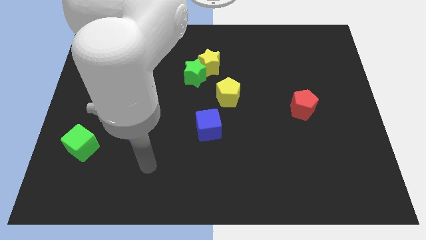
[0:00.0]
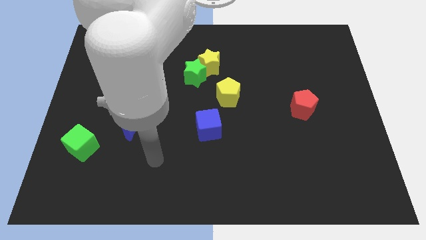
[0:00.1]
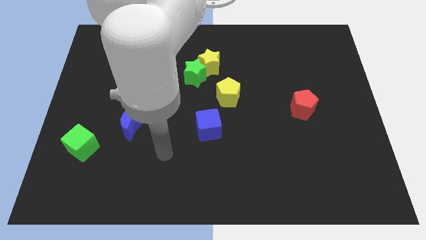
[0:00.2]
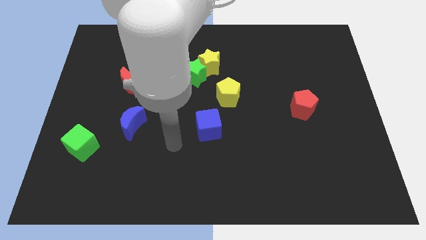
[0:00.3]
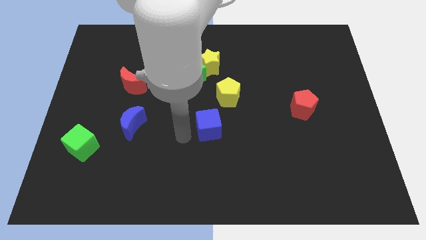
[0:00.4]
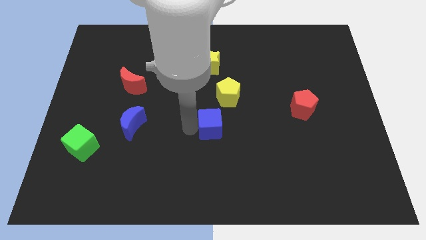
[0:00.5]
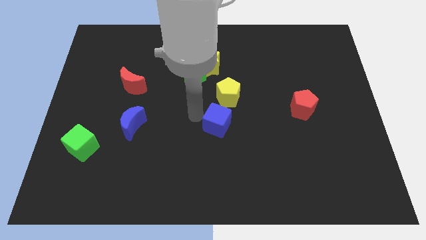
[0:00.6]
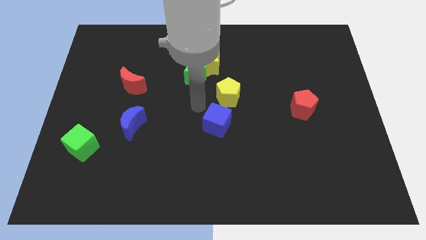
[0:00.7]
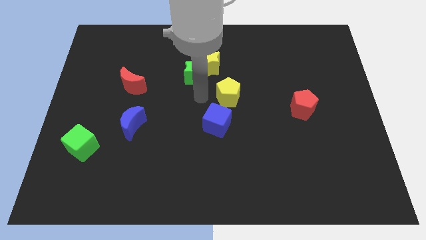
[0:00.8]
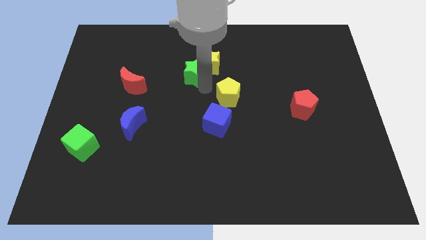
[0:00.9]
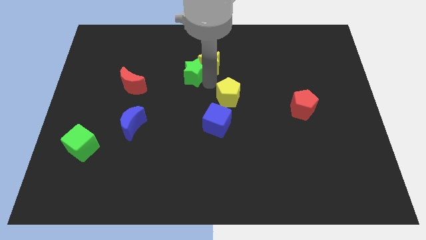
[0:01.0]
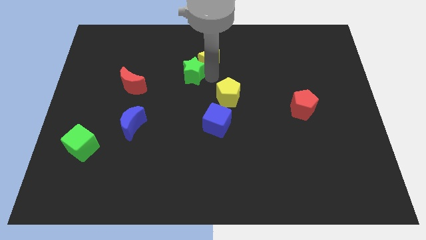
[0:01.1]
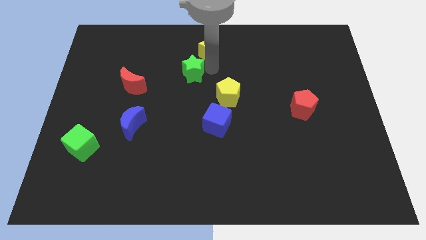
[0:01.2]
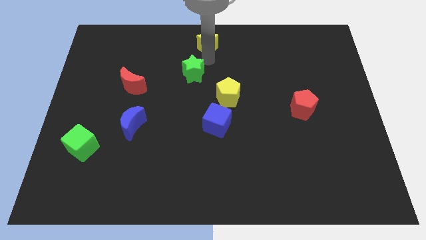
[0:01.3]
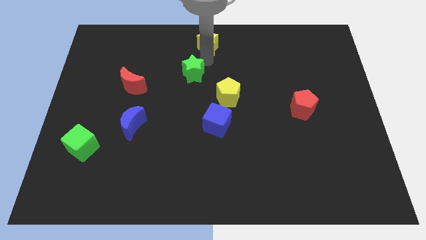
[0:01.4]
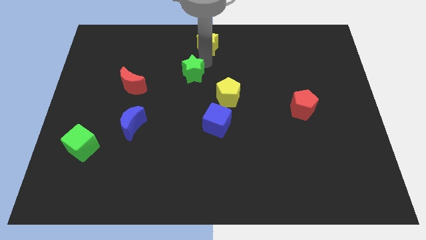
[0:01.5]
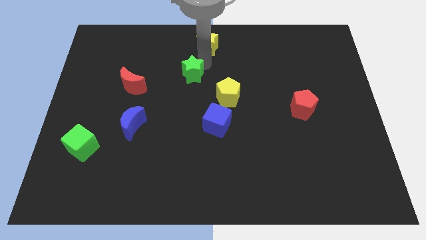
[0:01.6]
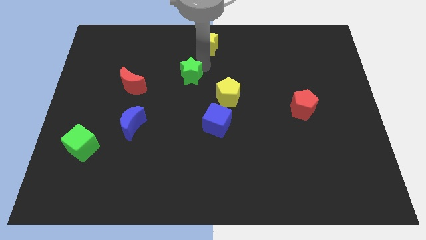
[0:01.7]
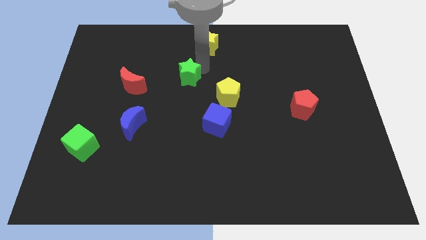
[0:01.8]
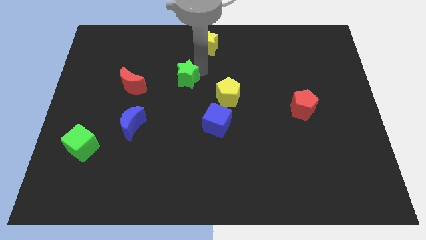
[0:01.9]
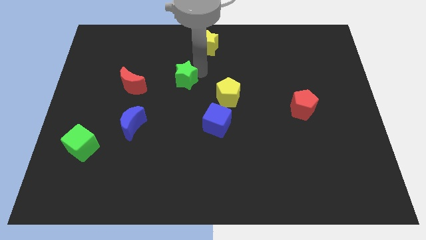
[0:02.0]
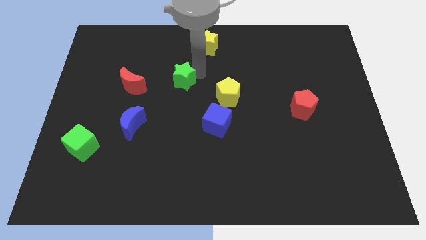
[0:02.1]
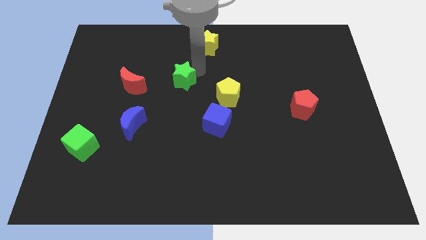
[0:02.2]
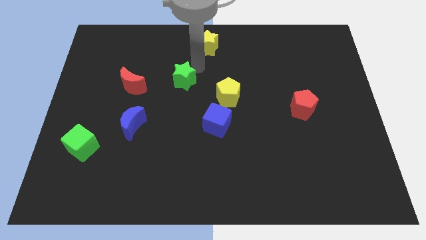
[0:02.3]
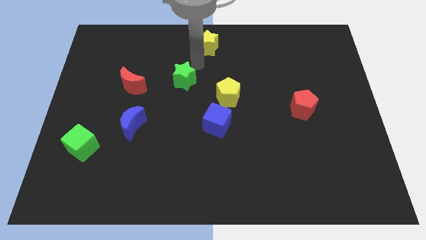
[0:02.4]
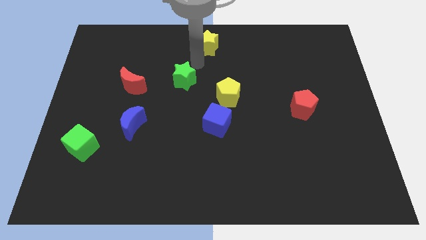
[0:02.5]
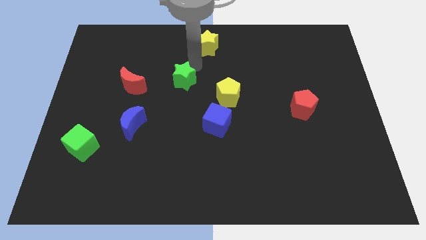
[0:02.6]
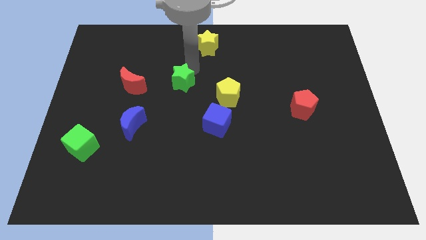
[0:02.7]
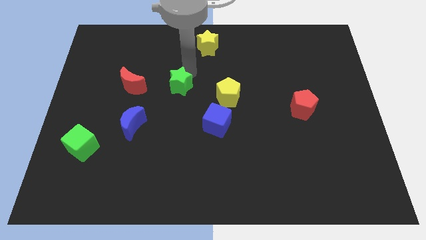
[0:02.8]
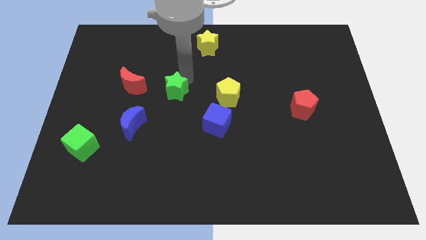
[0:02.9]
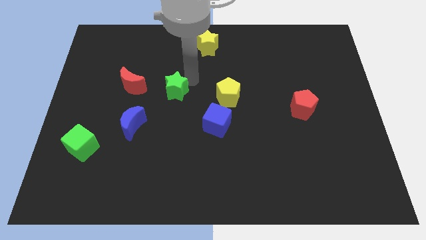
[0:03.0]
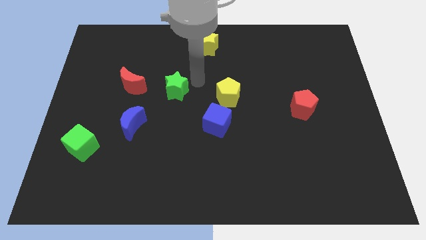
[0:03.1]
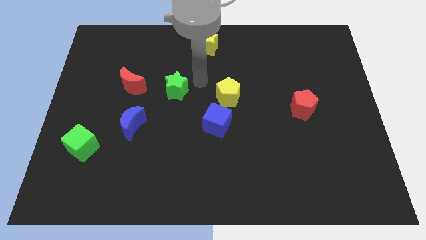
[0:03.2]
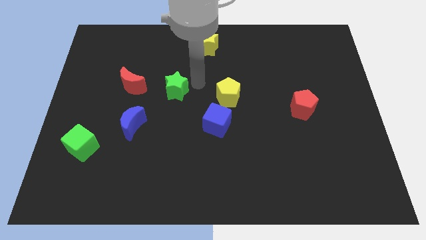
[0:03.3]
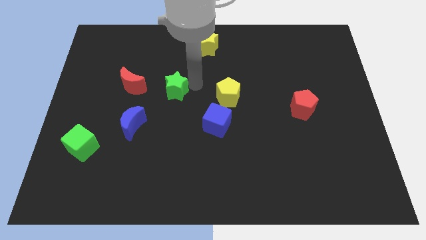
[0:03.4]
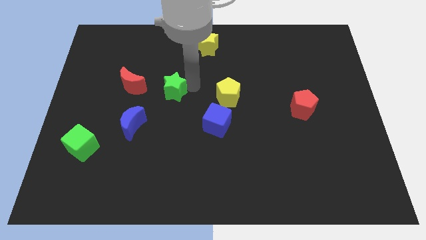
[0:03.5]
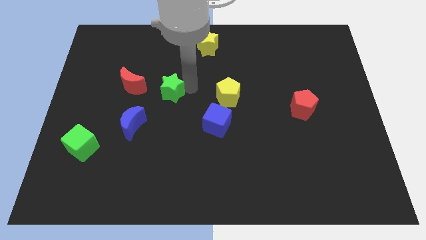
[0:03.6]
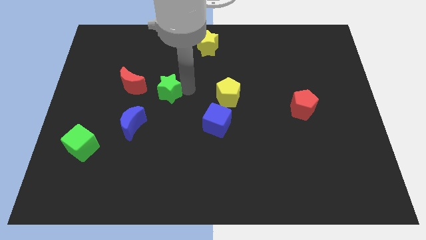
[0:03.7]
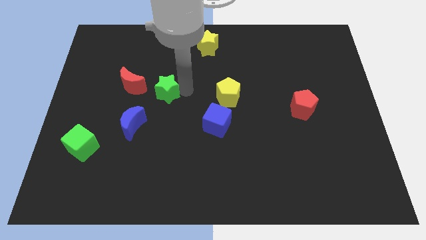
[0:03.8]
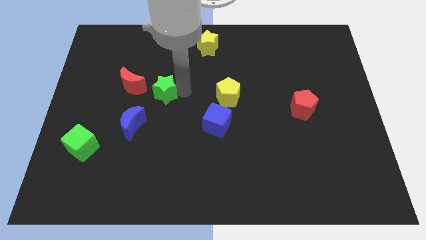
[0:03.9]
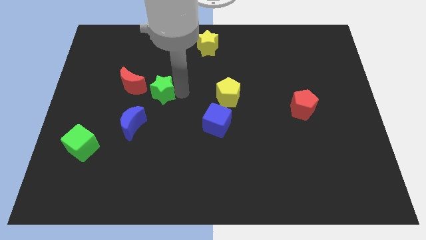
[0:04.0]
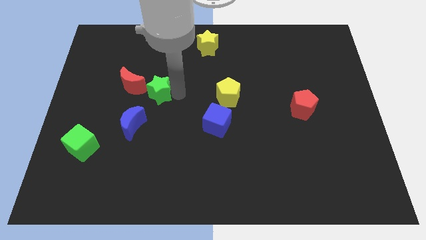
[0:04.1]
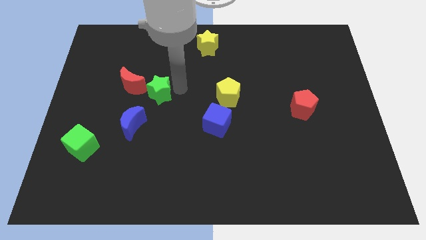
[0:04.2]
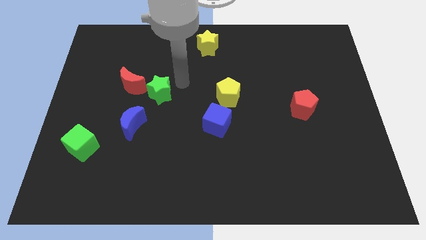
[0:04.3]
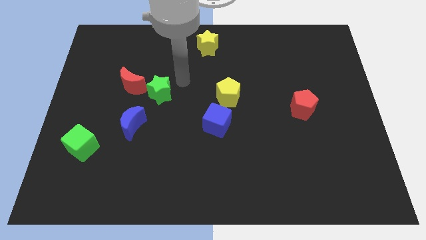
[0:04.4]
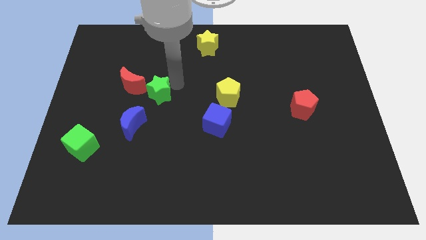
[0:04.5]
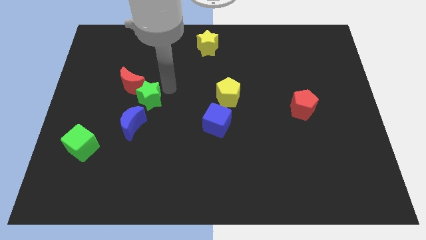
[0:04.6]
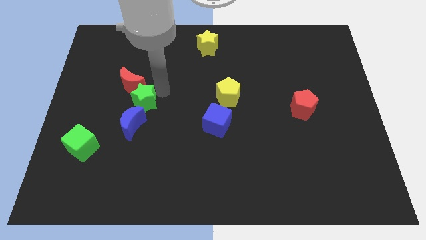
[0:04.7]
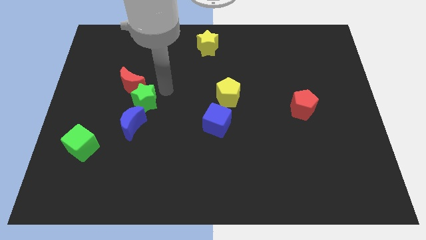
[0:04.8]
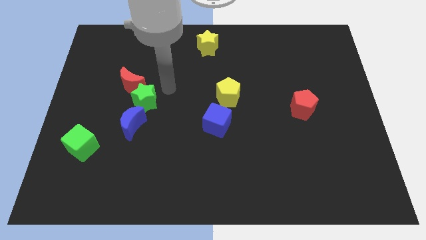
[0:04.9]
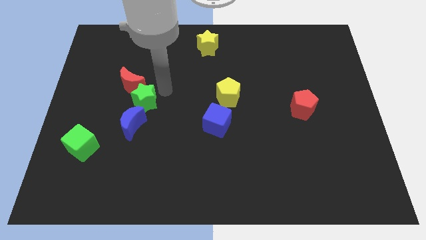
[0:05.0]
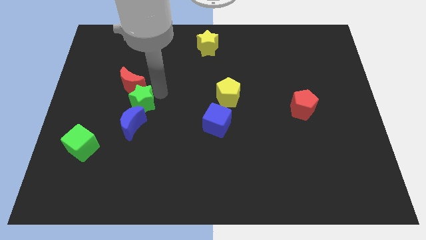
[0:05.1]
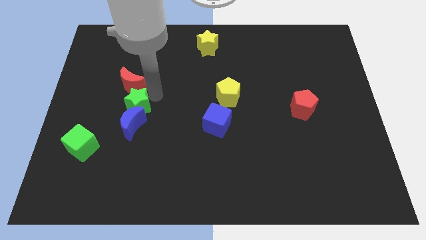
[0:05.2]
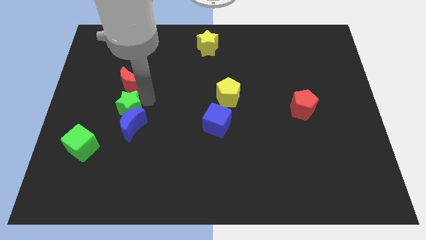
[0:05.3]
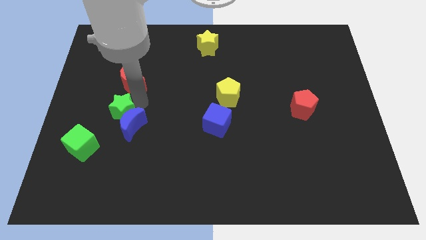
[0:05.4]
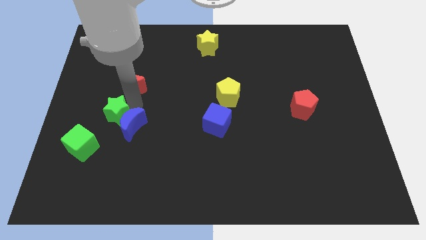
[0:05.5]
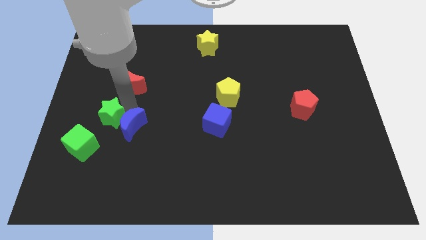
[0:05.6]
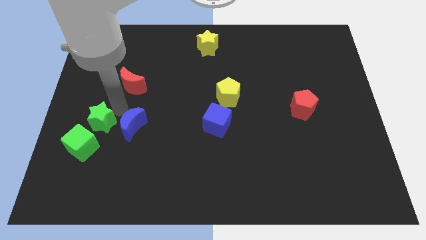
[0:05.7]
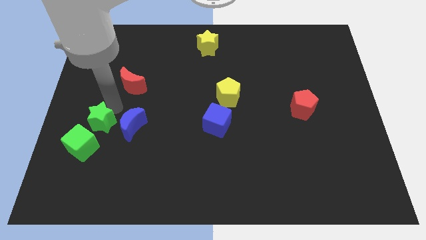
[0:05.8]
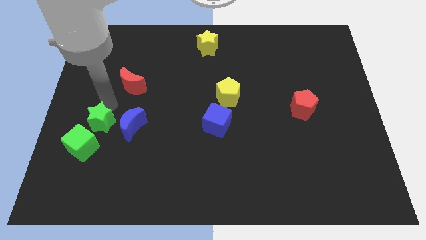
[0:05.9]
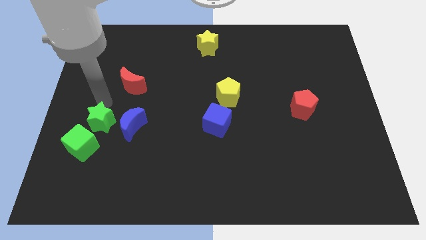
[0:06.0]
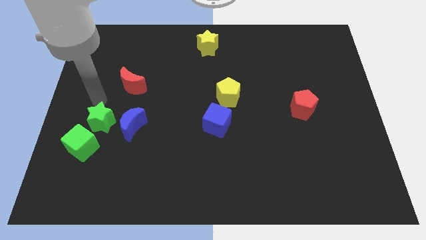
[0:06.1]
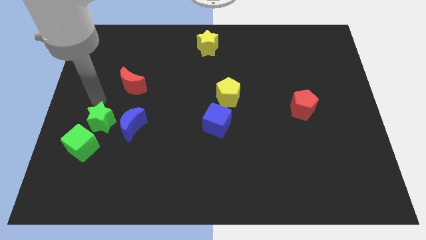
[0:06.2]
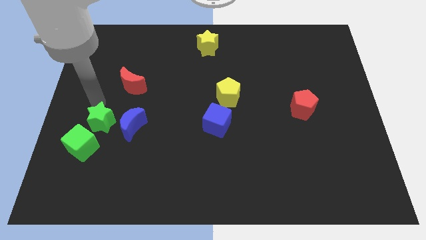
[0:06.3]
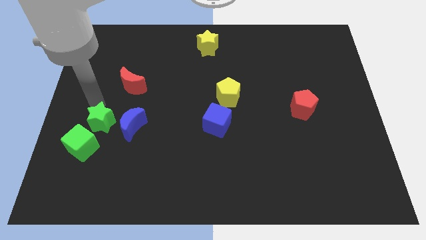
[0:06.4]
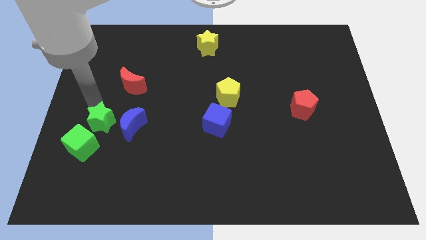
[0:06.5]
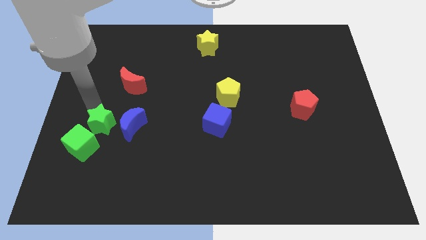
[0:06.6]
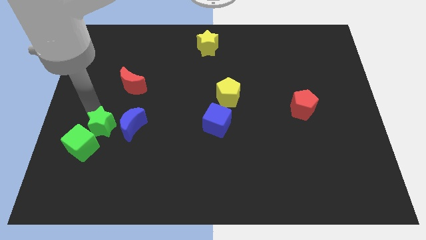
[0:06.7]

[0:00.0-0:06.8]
slide the green star to the bottom left of the blue moon

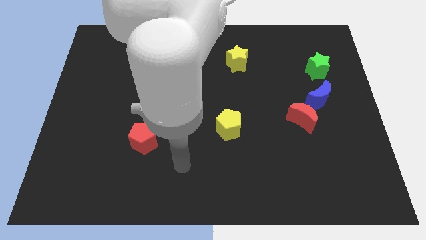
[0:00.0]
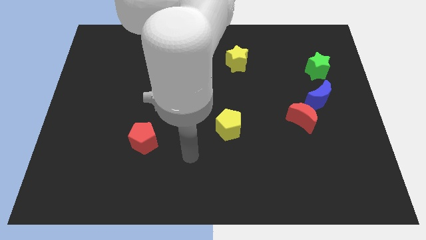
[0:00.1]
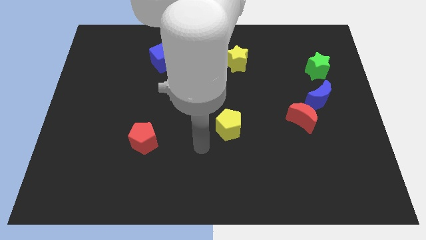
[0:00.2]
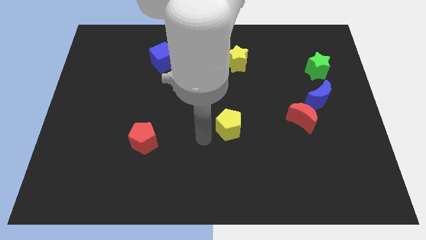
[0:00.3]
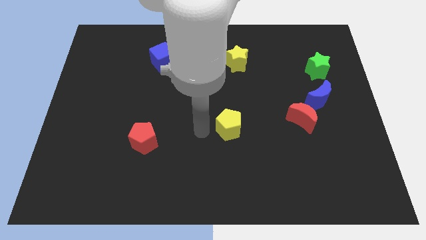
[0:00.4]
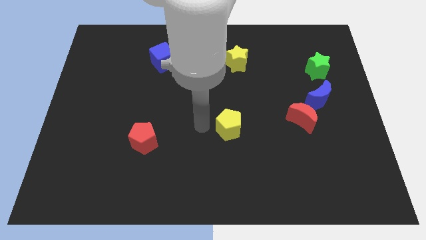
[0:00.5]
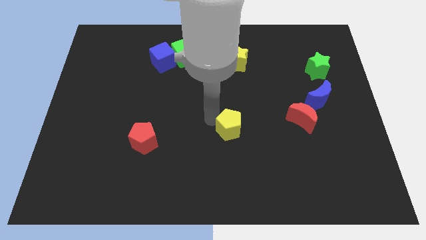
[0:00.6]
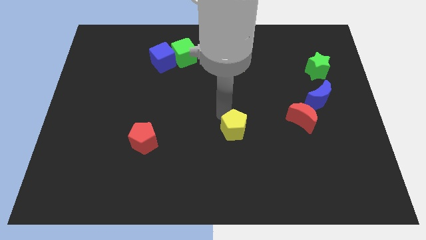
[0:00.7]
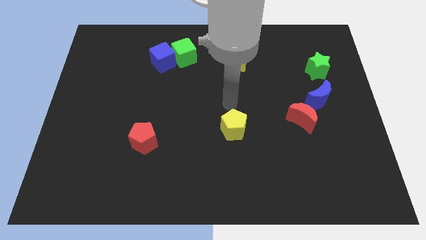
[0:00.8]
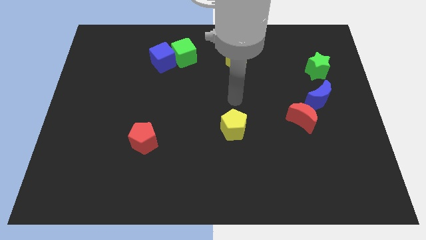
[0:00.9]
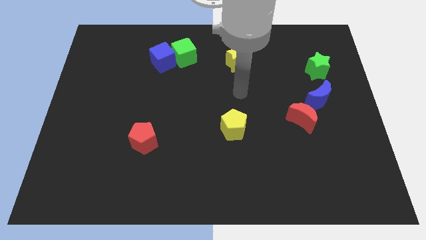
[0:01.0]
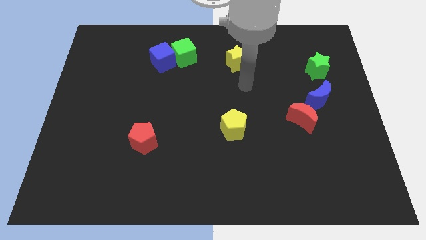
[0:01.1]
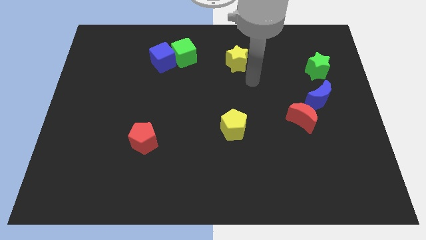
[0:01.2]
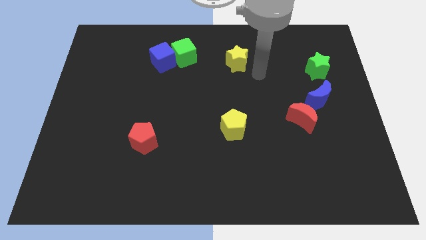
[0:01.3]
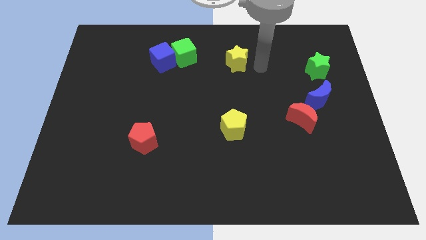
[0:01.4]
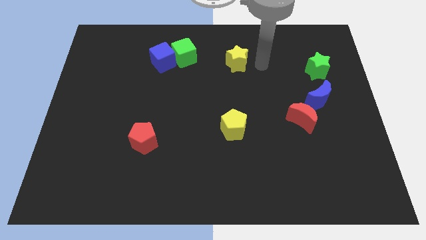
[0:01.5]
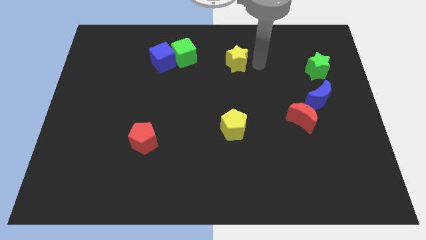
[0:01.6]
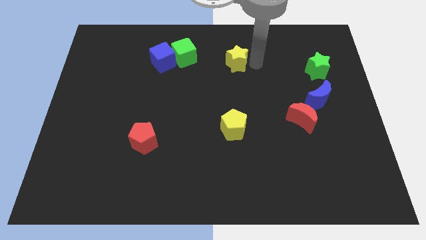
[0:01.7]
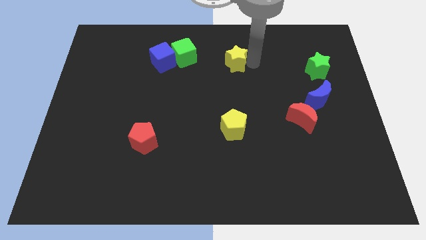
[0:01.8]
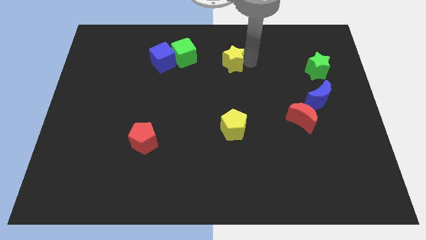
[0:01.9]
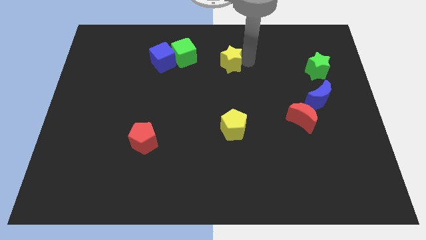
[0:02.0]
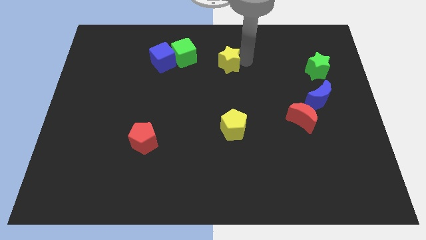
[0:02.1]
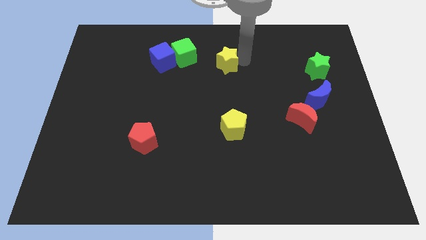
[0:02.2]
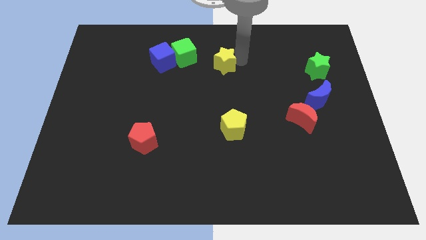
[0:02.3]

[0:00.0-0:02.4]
push the yellow star to the right side of the blue cube
